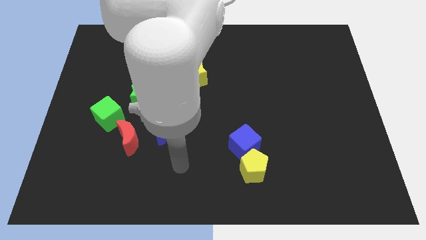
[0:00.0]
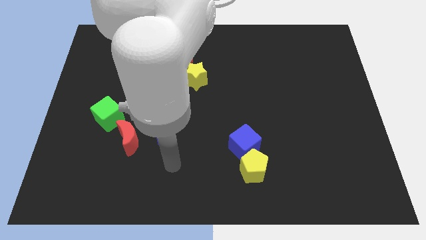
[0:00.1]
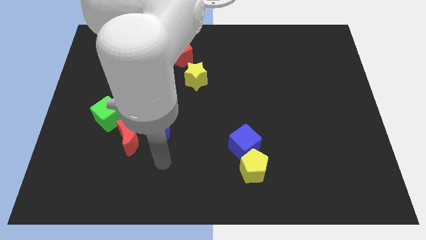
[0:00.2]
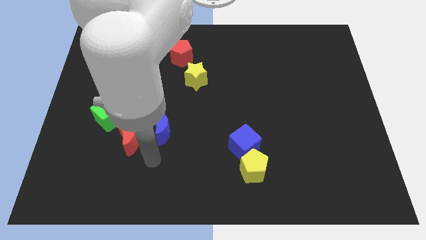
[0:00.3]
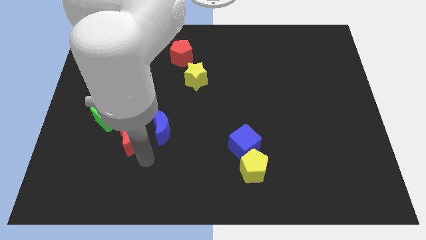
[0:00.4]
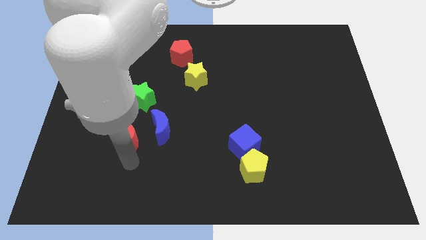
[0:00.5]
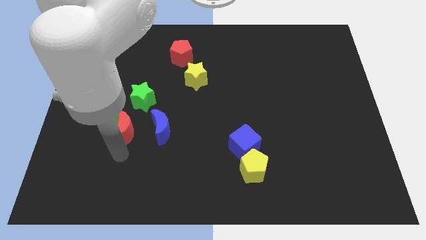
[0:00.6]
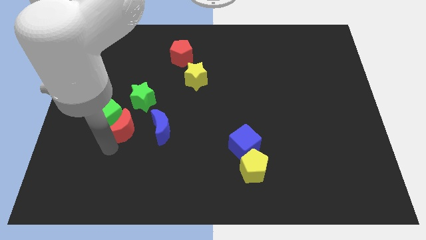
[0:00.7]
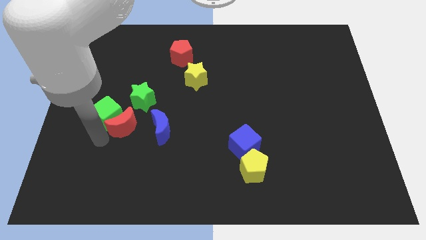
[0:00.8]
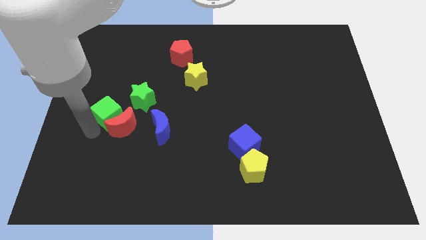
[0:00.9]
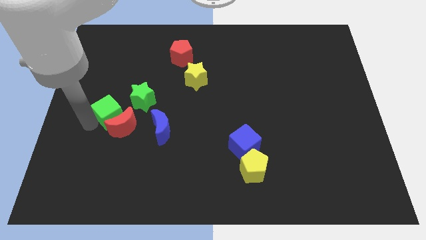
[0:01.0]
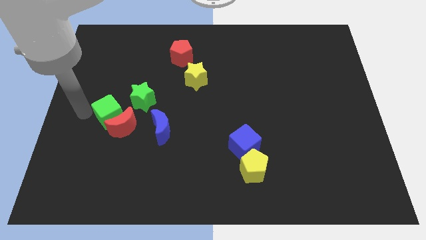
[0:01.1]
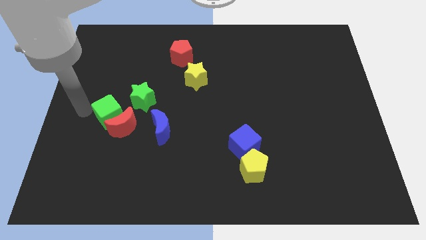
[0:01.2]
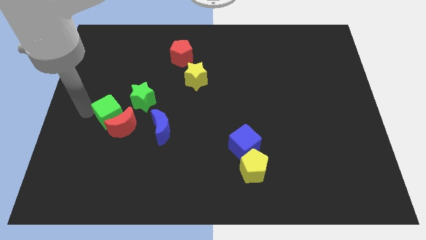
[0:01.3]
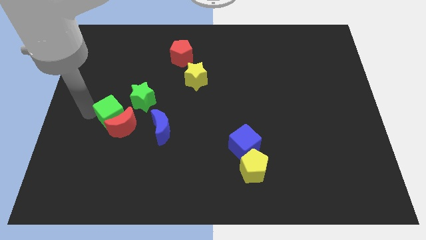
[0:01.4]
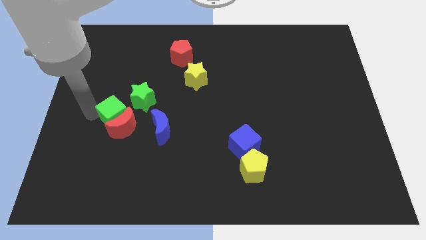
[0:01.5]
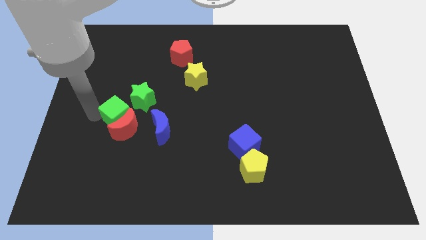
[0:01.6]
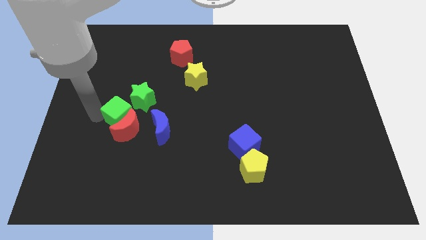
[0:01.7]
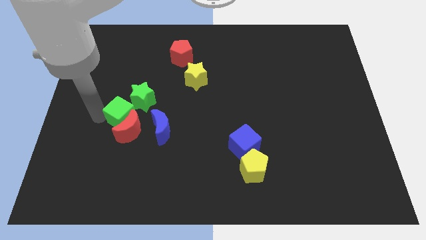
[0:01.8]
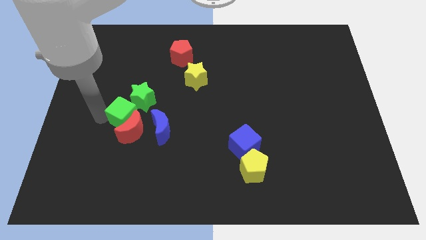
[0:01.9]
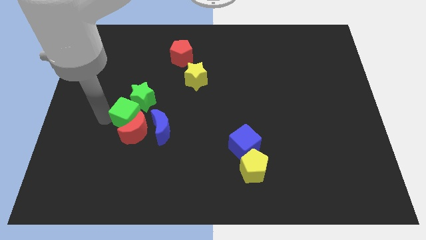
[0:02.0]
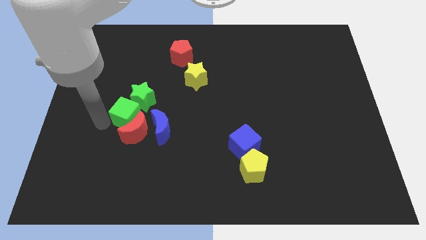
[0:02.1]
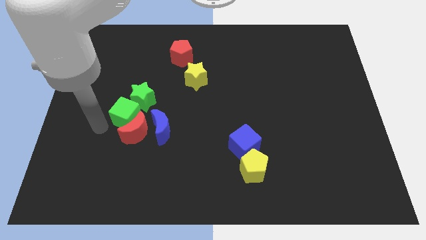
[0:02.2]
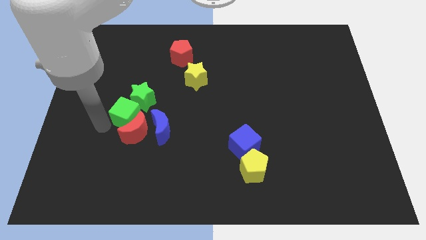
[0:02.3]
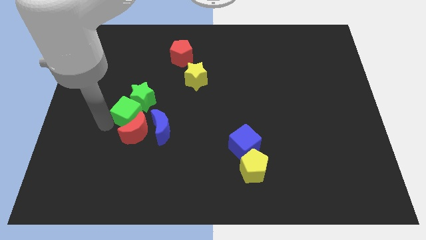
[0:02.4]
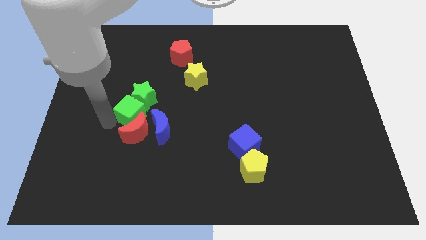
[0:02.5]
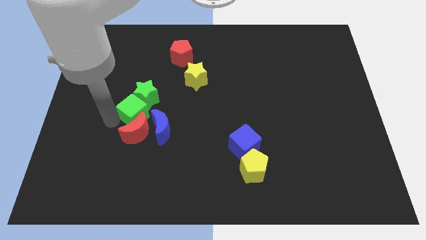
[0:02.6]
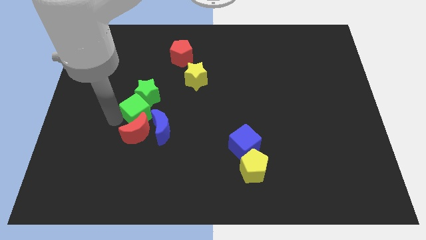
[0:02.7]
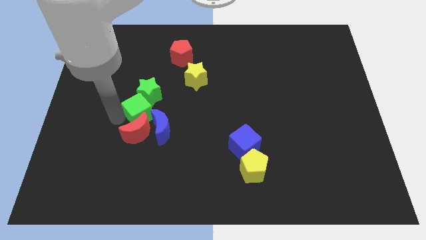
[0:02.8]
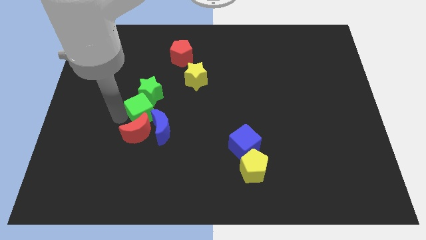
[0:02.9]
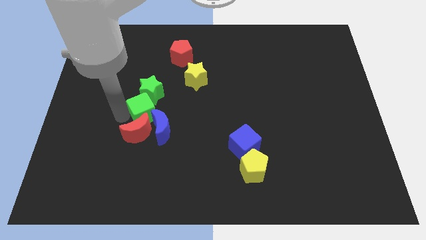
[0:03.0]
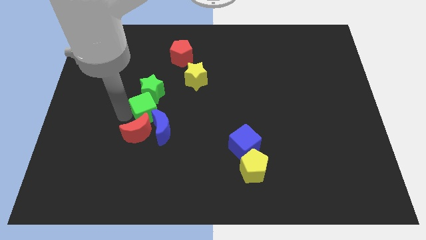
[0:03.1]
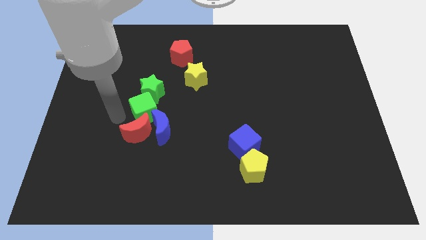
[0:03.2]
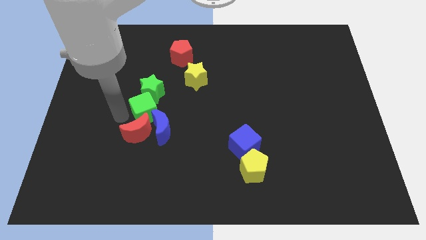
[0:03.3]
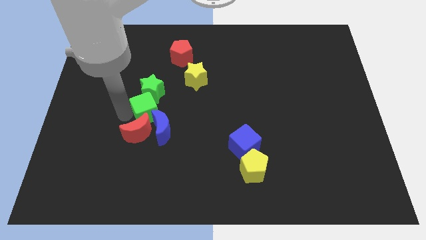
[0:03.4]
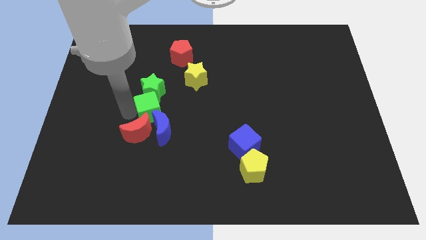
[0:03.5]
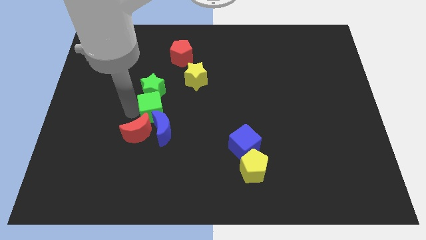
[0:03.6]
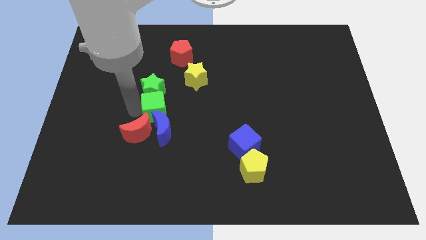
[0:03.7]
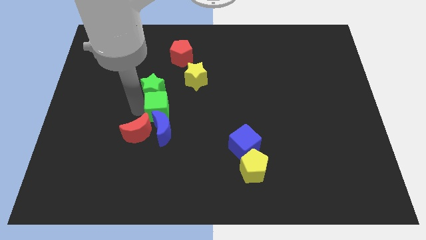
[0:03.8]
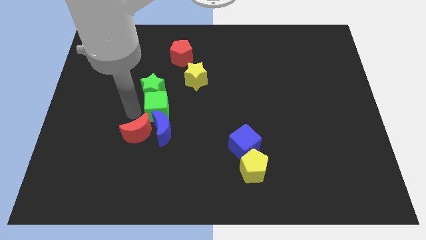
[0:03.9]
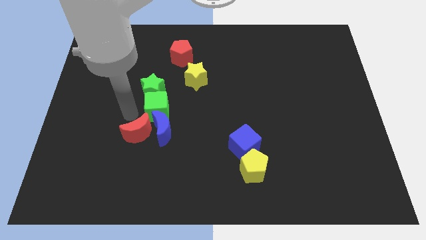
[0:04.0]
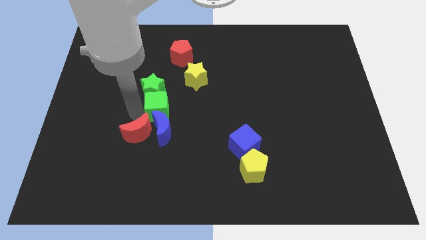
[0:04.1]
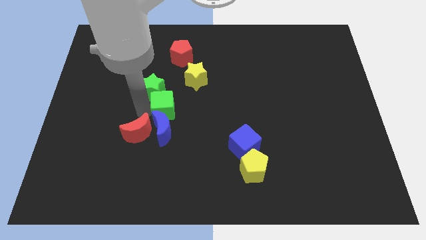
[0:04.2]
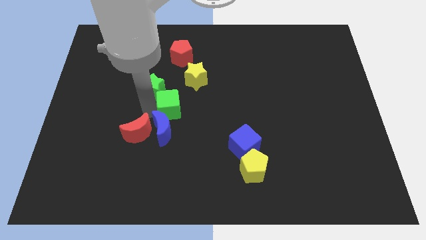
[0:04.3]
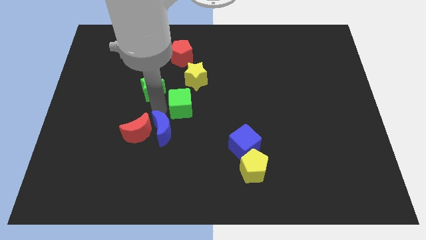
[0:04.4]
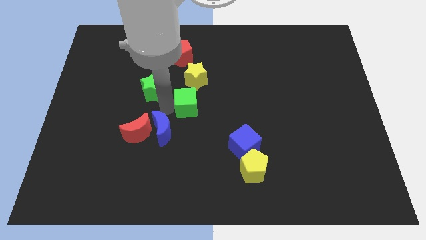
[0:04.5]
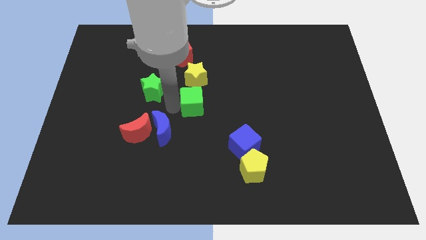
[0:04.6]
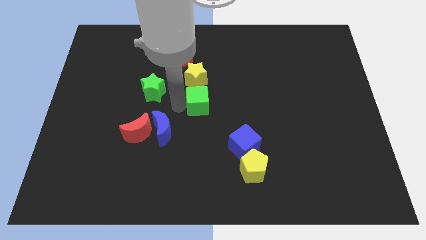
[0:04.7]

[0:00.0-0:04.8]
slide the green cube to the right

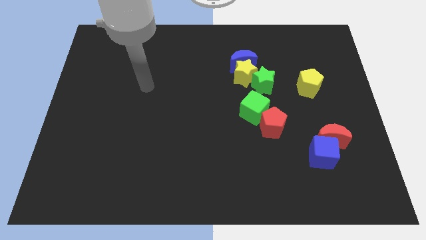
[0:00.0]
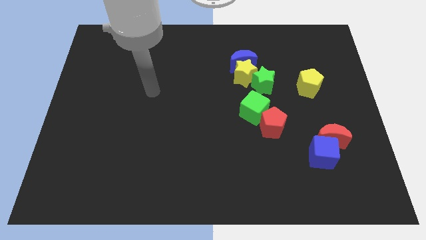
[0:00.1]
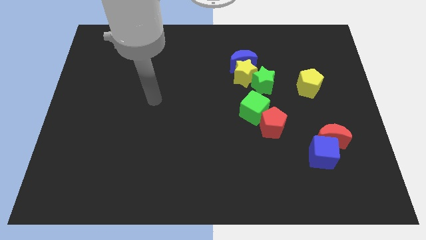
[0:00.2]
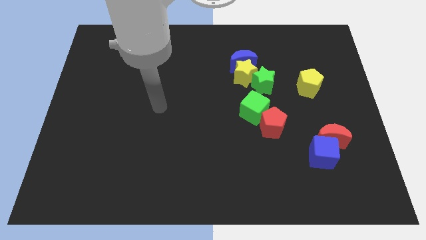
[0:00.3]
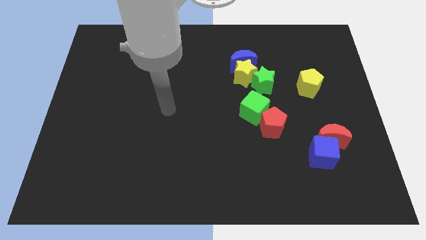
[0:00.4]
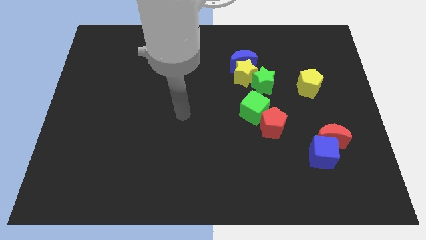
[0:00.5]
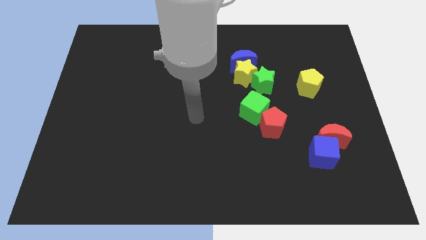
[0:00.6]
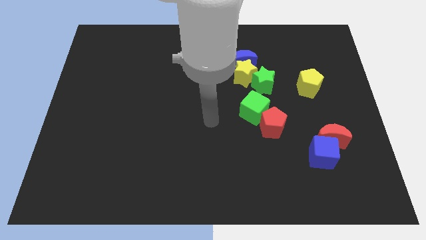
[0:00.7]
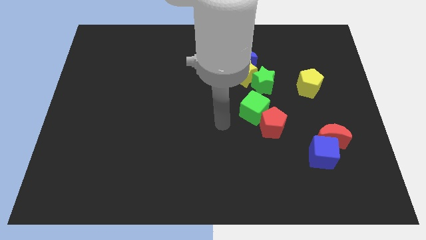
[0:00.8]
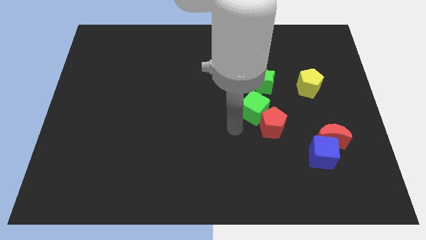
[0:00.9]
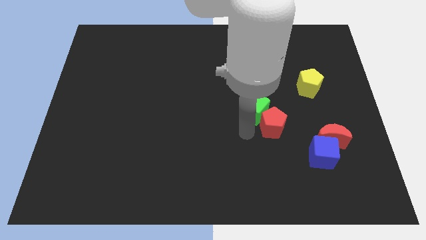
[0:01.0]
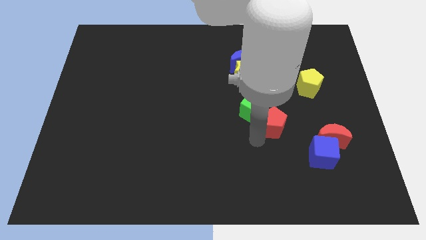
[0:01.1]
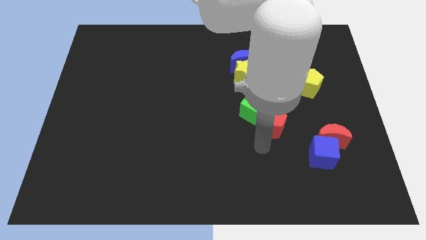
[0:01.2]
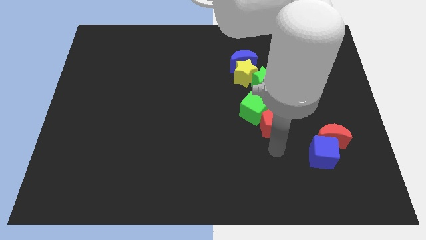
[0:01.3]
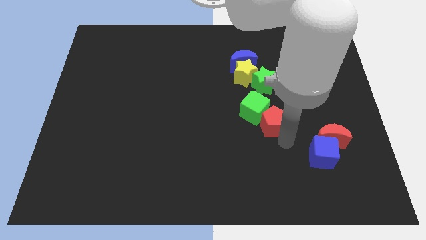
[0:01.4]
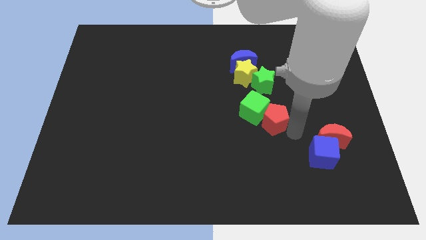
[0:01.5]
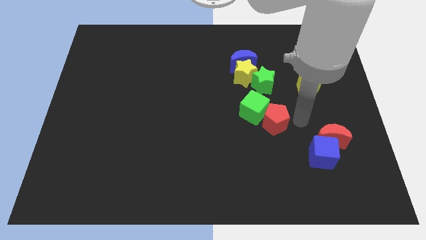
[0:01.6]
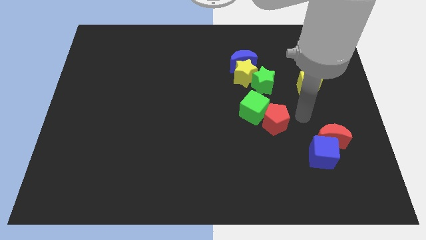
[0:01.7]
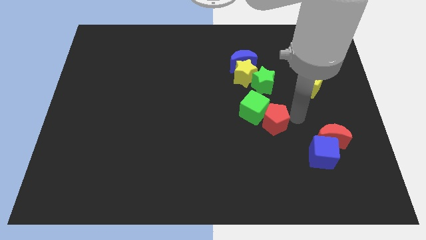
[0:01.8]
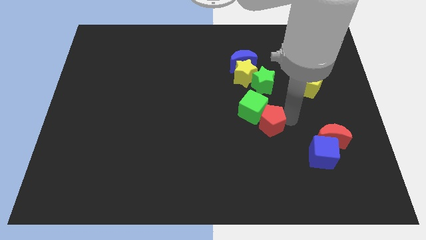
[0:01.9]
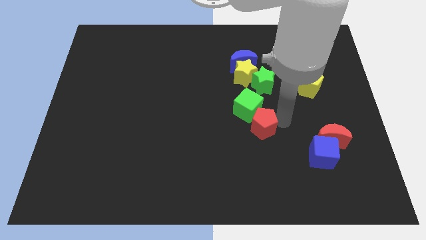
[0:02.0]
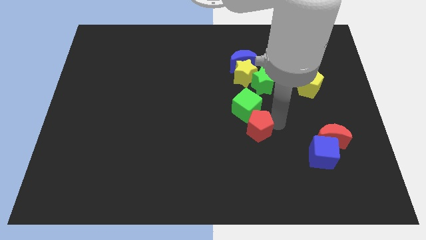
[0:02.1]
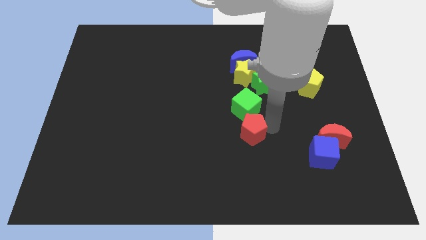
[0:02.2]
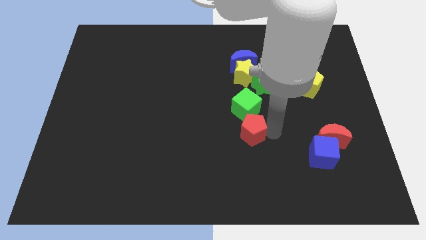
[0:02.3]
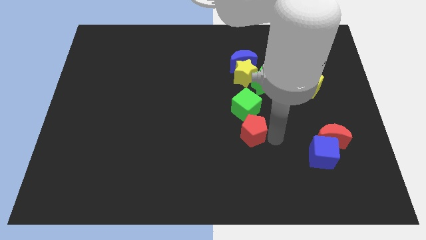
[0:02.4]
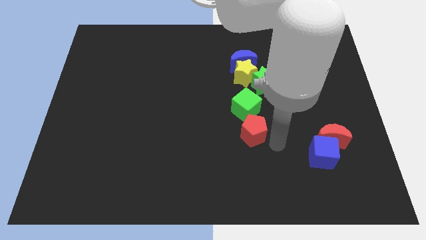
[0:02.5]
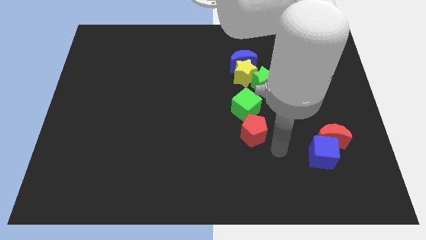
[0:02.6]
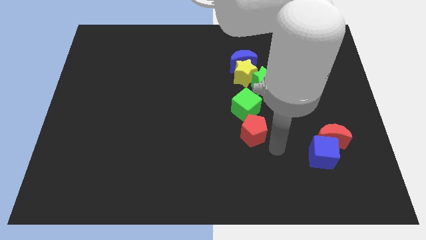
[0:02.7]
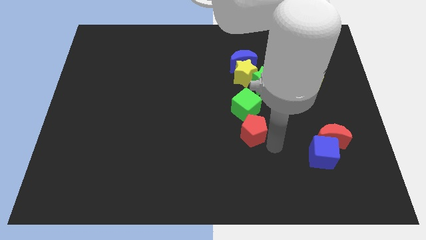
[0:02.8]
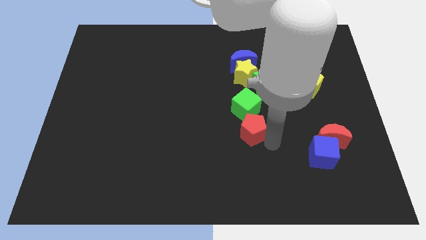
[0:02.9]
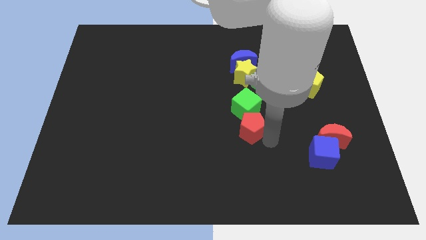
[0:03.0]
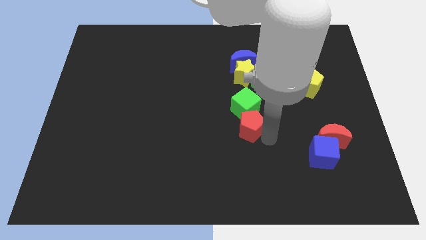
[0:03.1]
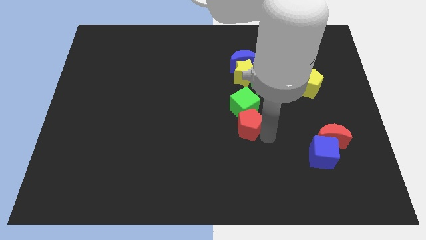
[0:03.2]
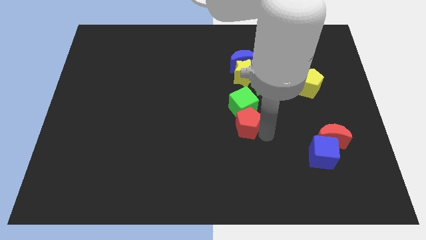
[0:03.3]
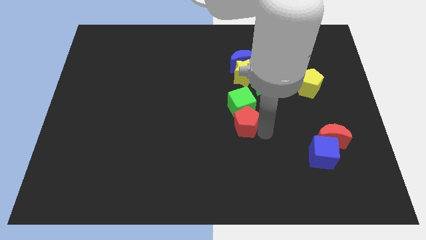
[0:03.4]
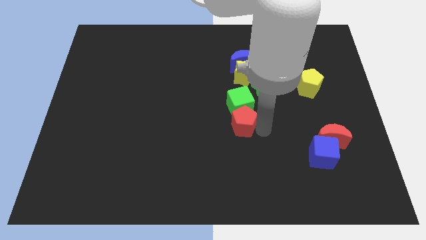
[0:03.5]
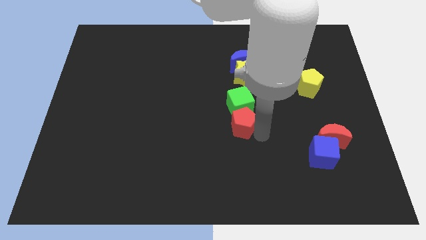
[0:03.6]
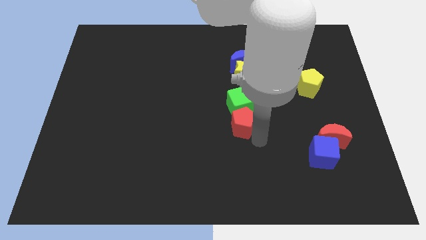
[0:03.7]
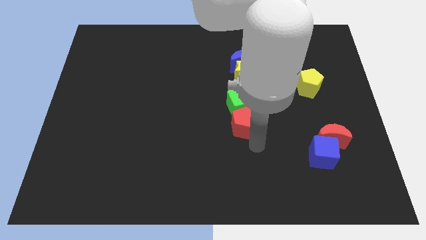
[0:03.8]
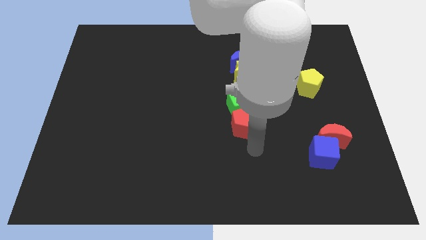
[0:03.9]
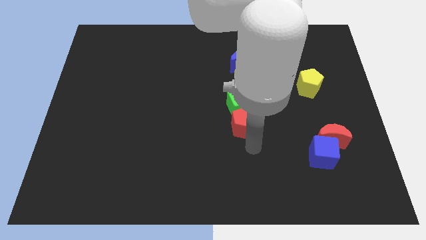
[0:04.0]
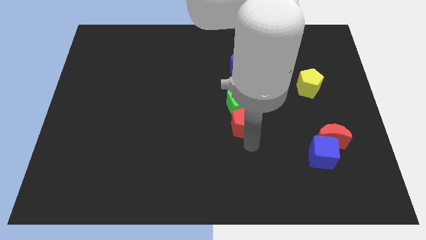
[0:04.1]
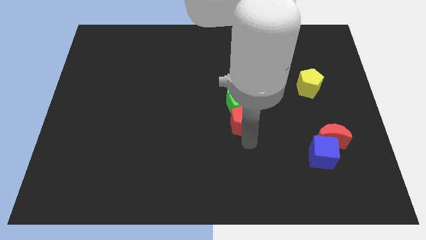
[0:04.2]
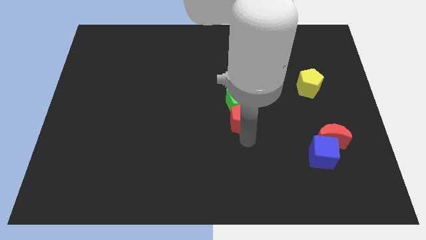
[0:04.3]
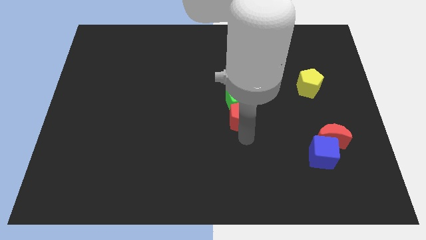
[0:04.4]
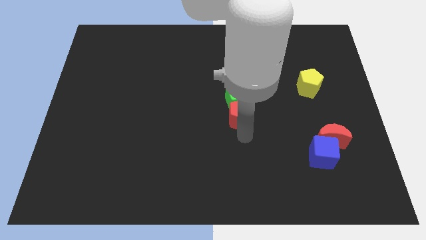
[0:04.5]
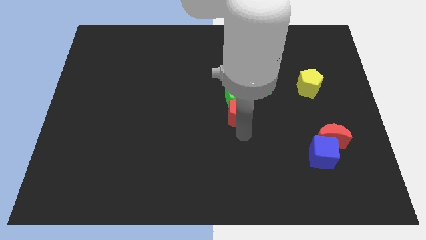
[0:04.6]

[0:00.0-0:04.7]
push the red pentagon upwards and left diagonally a little bit
